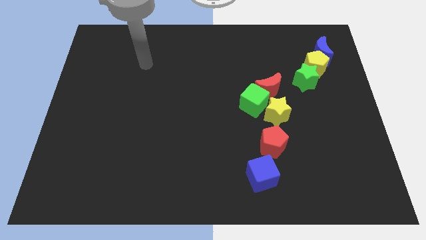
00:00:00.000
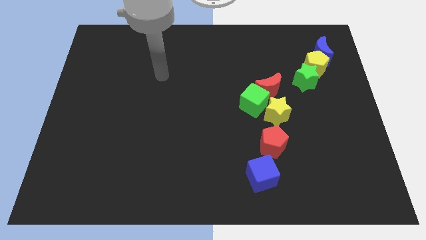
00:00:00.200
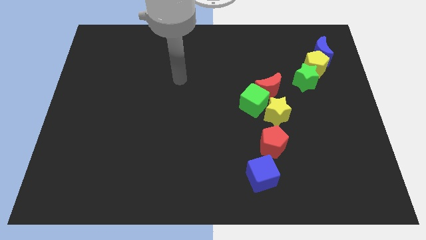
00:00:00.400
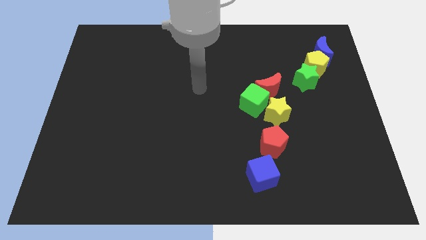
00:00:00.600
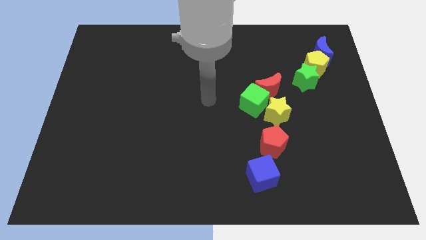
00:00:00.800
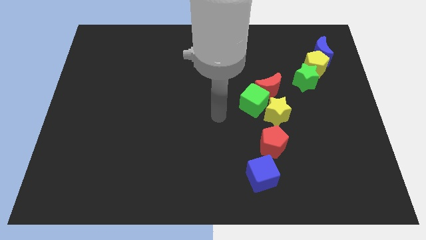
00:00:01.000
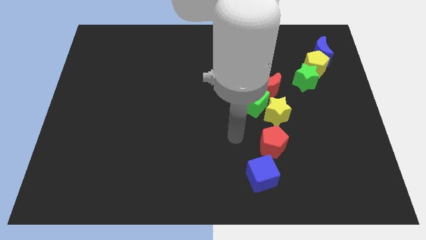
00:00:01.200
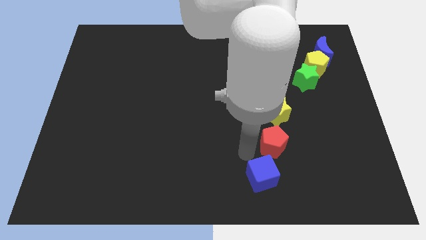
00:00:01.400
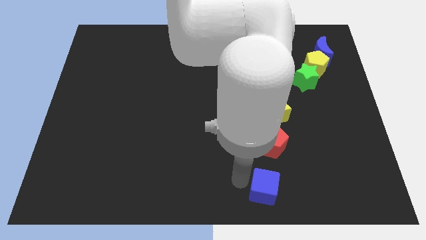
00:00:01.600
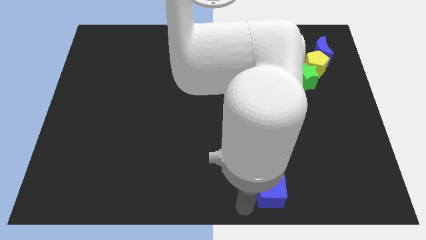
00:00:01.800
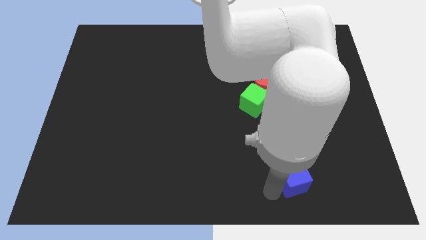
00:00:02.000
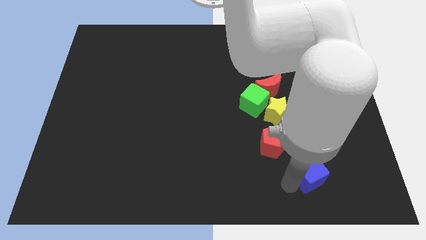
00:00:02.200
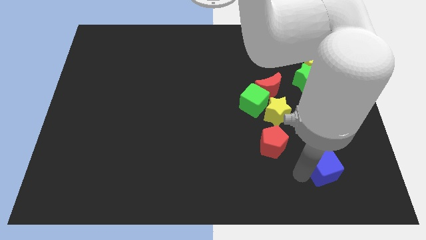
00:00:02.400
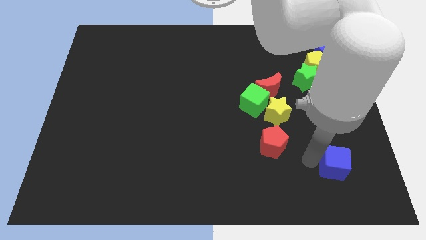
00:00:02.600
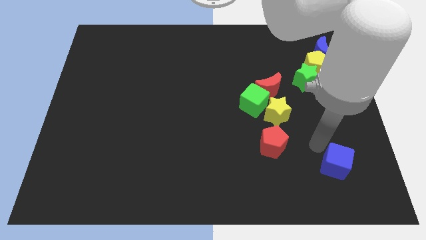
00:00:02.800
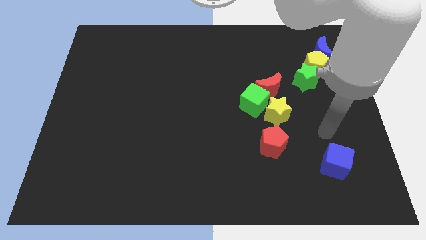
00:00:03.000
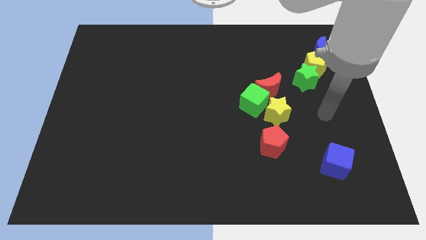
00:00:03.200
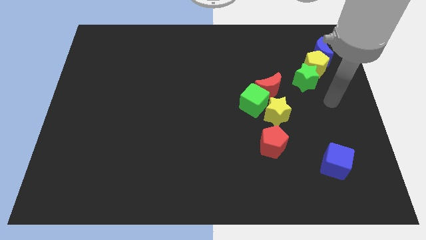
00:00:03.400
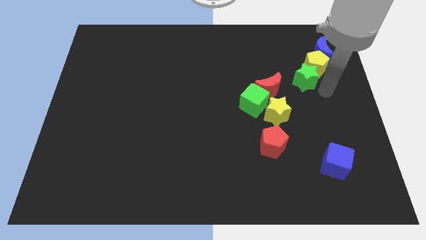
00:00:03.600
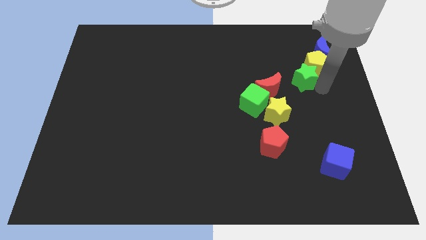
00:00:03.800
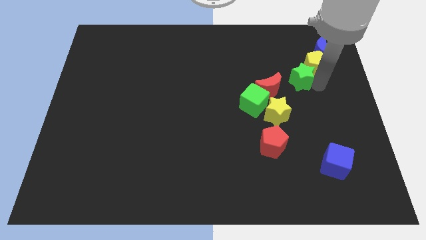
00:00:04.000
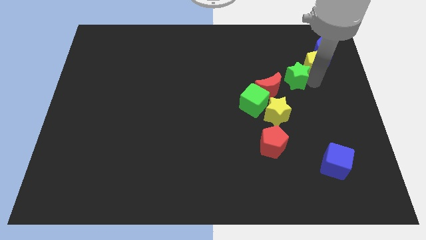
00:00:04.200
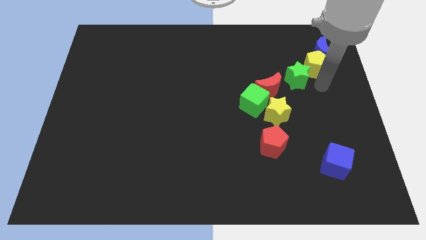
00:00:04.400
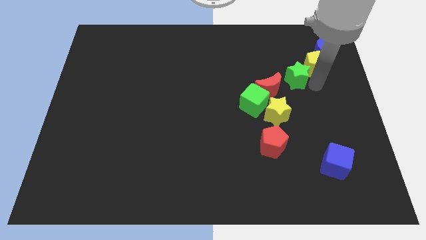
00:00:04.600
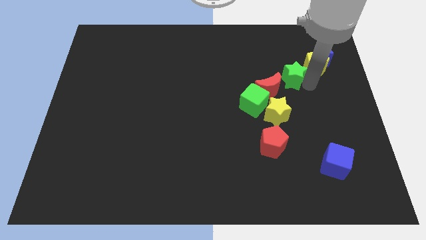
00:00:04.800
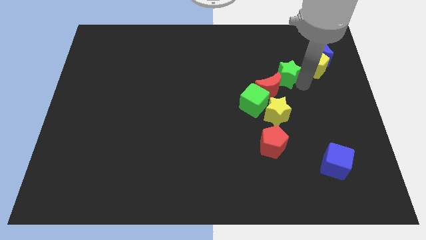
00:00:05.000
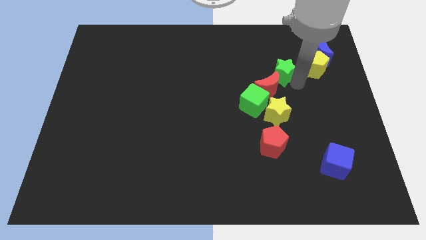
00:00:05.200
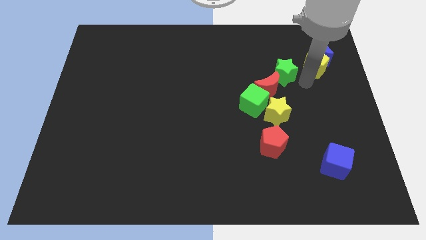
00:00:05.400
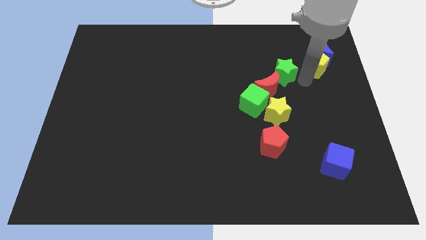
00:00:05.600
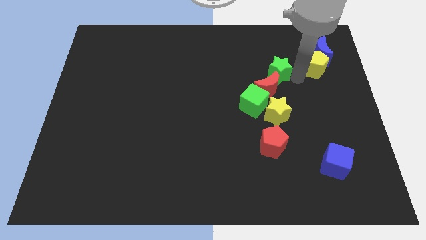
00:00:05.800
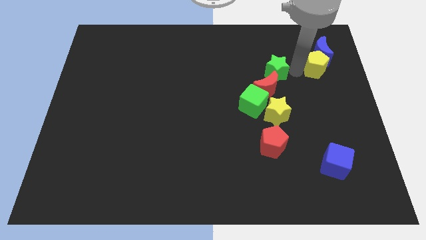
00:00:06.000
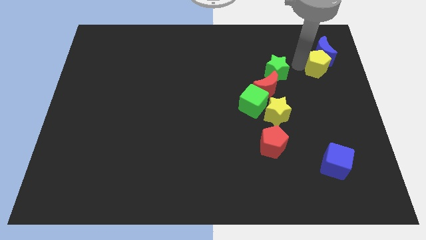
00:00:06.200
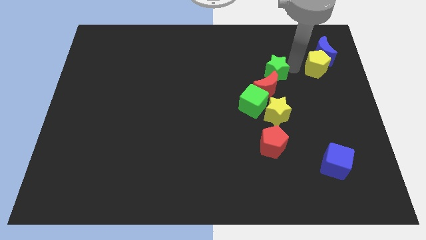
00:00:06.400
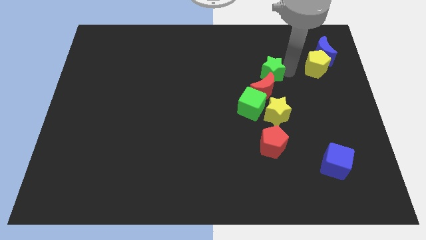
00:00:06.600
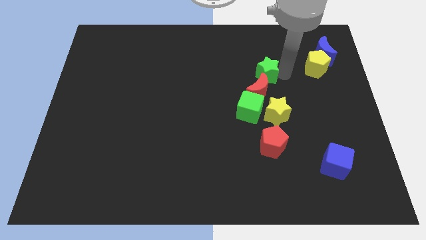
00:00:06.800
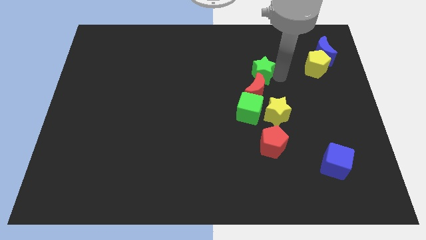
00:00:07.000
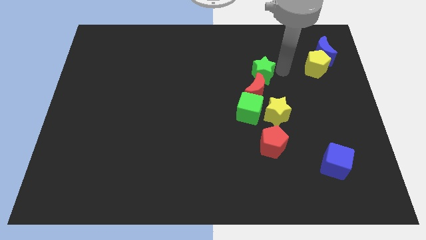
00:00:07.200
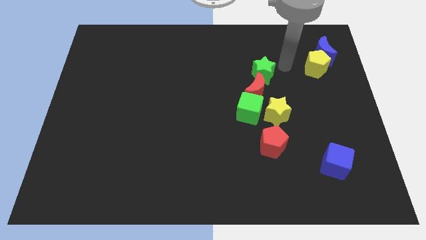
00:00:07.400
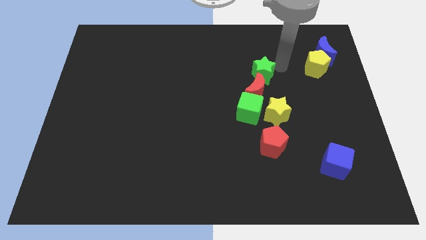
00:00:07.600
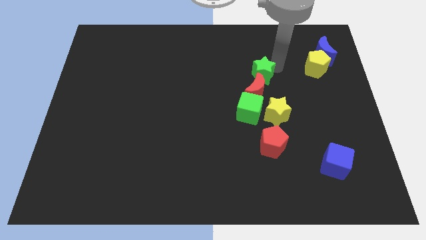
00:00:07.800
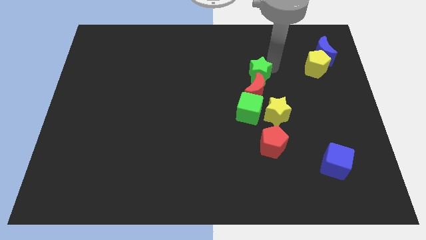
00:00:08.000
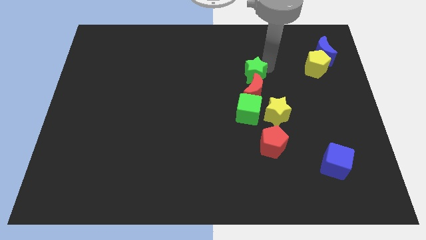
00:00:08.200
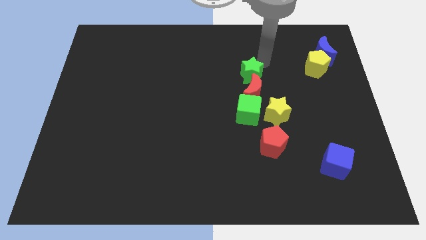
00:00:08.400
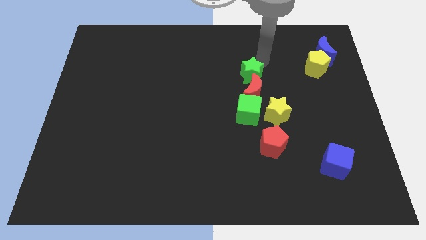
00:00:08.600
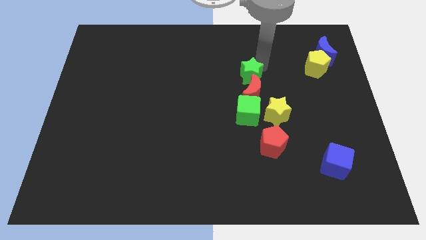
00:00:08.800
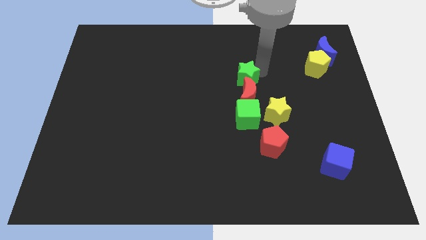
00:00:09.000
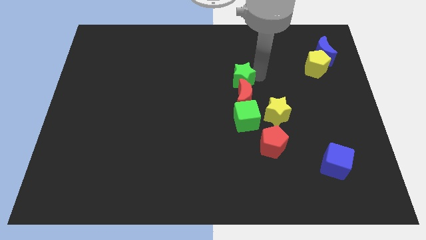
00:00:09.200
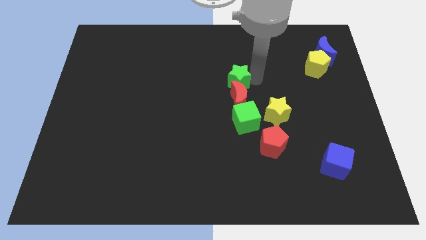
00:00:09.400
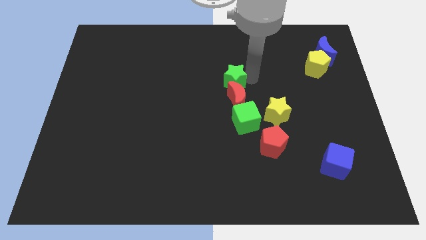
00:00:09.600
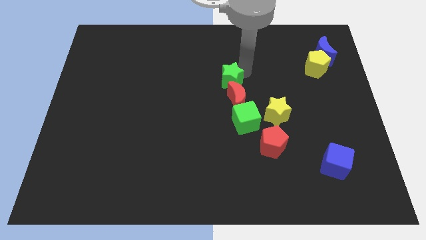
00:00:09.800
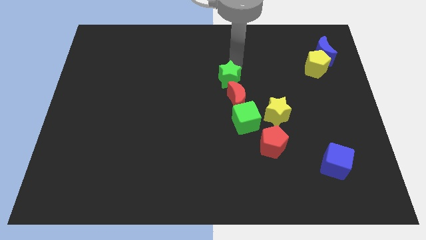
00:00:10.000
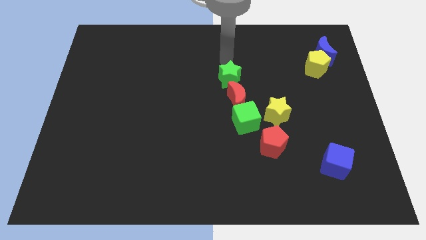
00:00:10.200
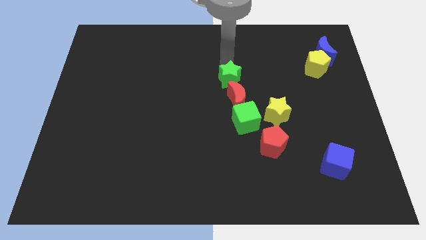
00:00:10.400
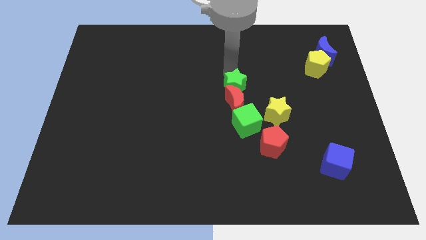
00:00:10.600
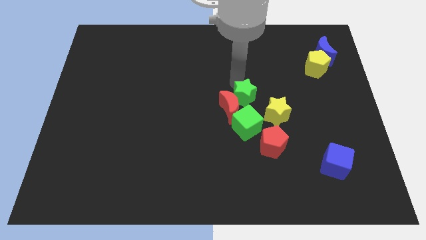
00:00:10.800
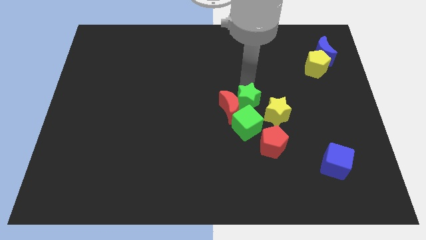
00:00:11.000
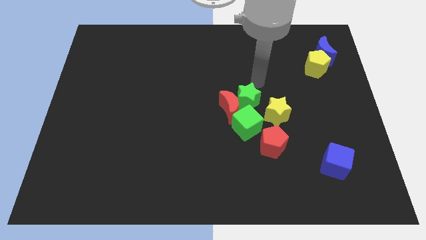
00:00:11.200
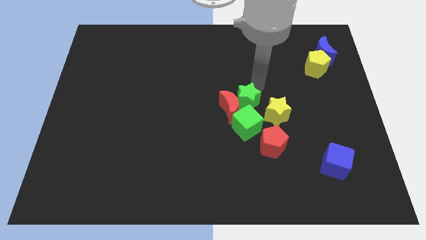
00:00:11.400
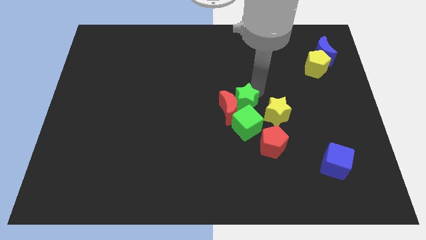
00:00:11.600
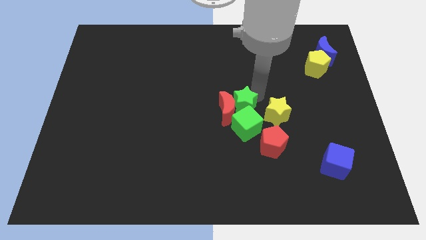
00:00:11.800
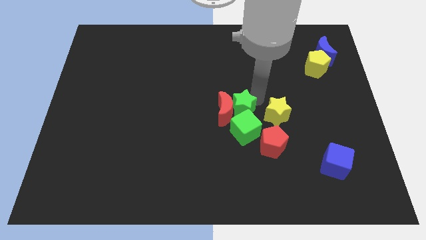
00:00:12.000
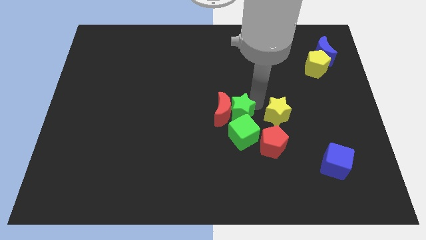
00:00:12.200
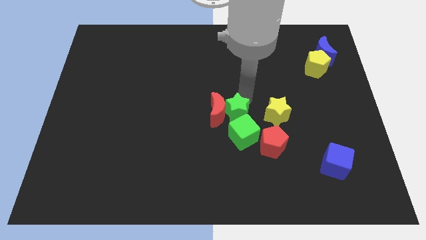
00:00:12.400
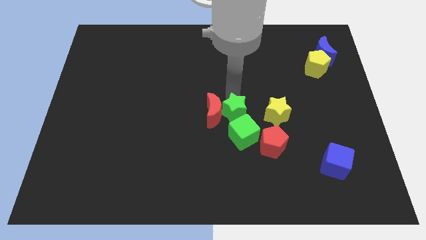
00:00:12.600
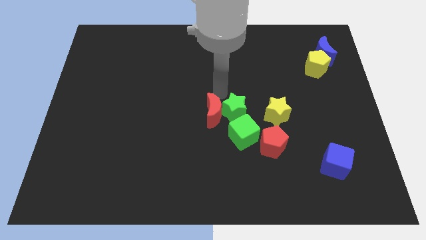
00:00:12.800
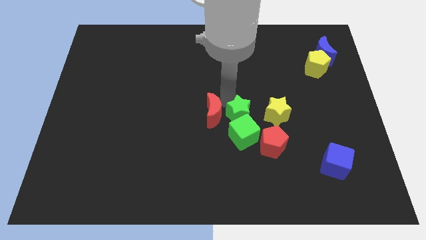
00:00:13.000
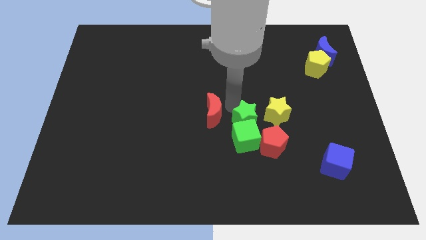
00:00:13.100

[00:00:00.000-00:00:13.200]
put the green star to the bottom left side of the yellow star

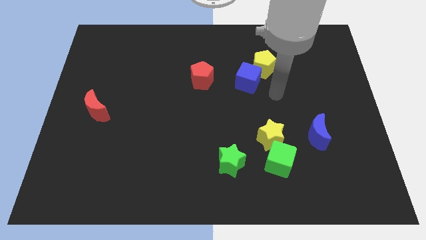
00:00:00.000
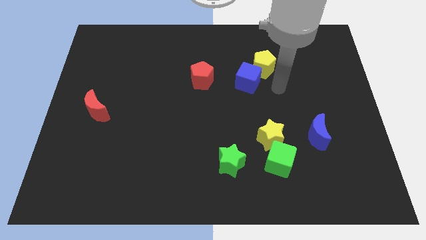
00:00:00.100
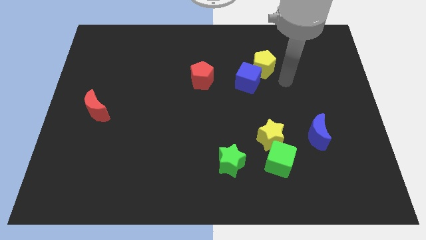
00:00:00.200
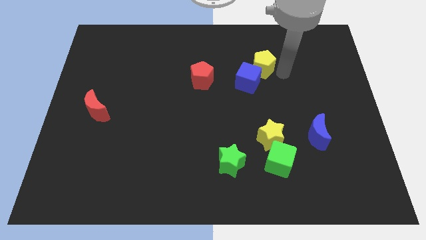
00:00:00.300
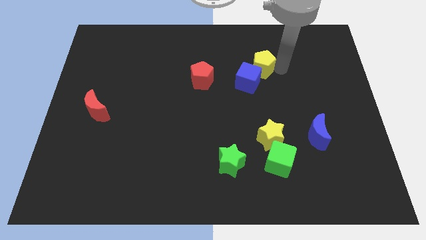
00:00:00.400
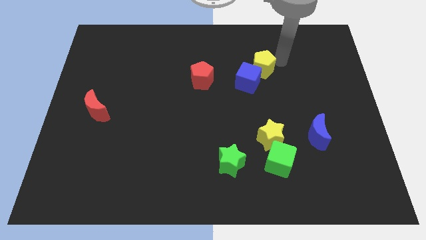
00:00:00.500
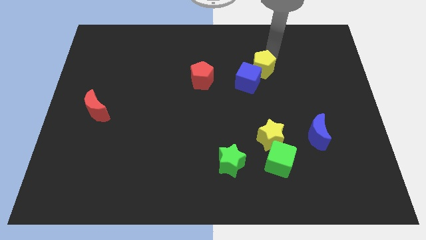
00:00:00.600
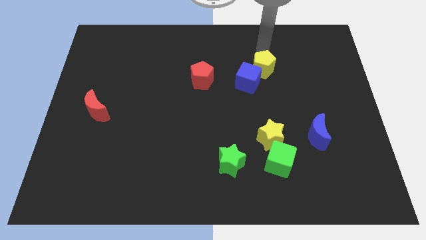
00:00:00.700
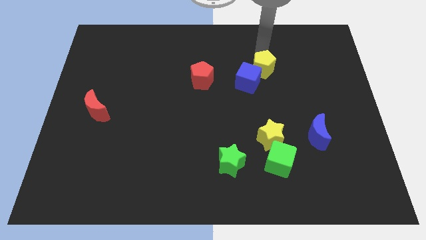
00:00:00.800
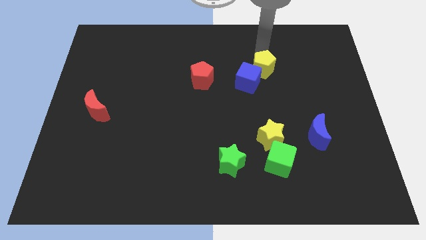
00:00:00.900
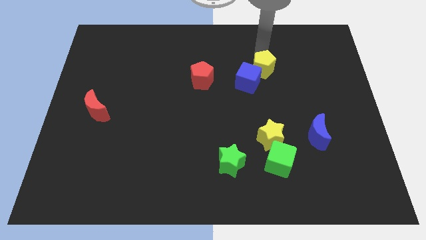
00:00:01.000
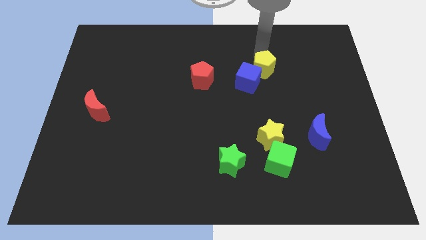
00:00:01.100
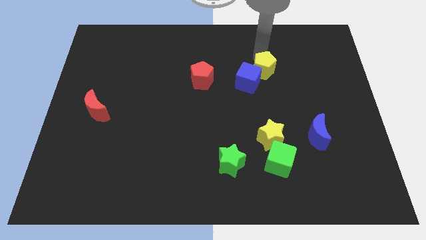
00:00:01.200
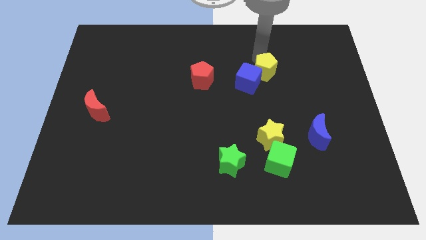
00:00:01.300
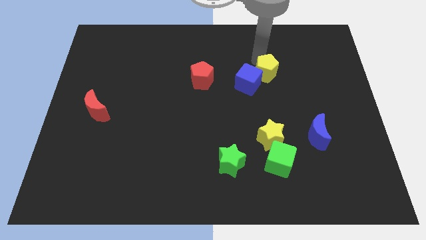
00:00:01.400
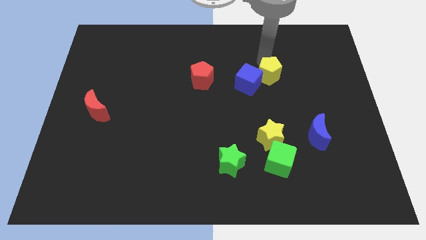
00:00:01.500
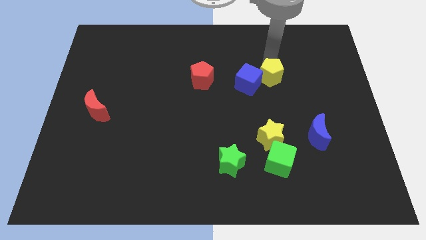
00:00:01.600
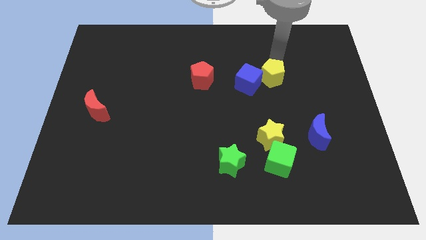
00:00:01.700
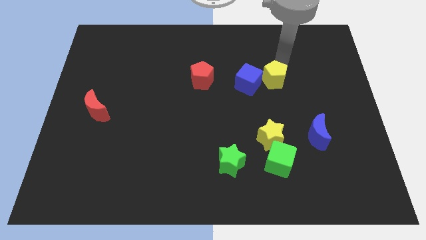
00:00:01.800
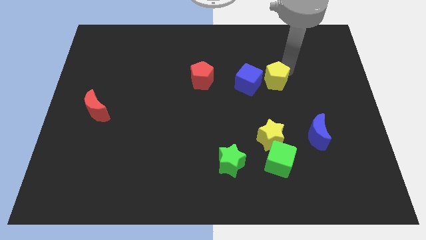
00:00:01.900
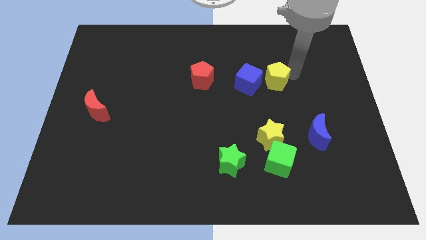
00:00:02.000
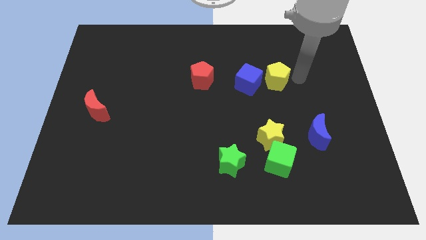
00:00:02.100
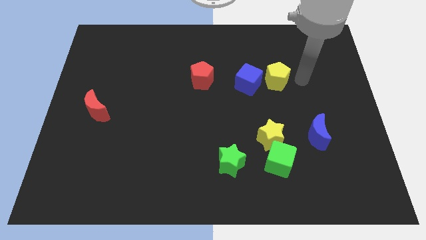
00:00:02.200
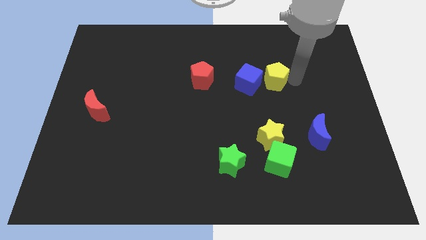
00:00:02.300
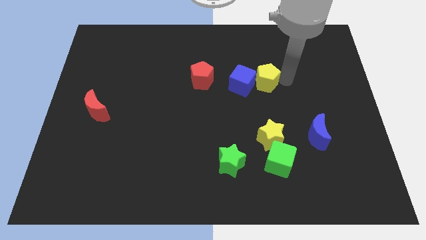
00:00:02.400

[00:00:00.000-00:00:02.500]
put the yellow pentagon right of the red pentagon
